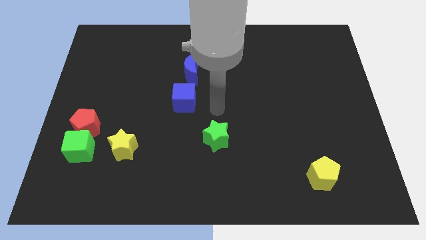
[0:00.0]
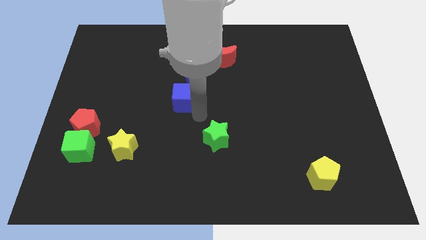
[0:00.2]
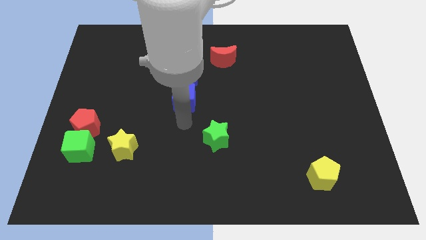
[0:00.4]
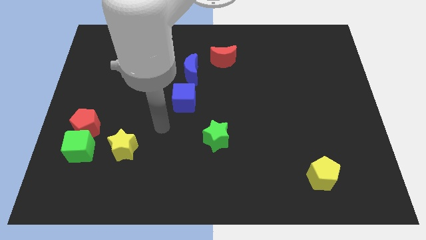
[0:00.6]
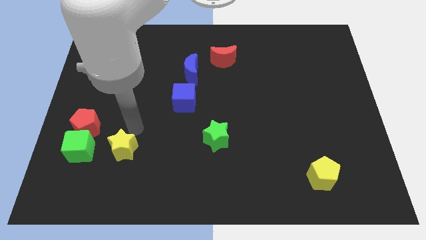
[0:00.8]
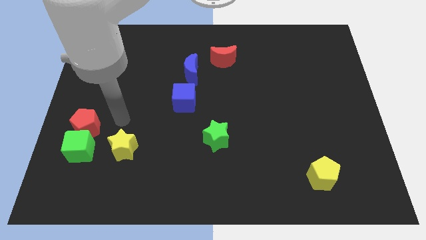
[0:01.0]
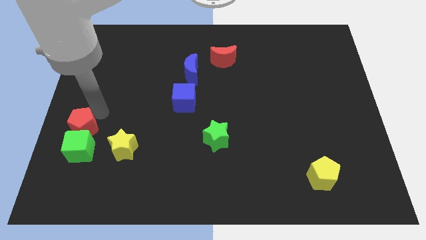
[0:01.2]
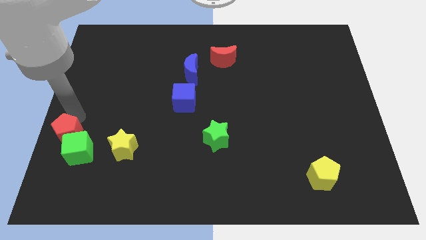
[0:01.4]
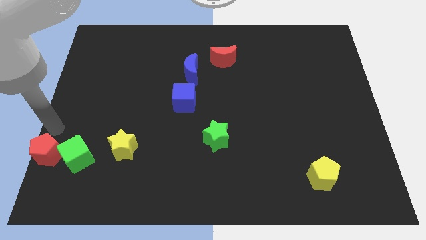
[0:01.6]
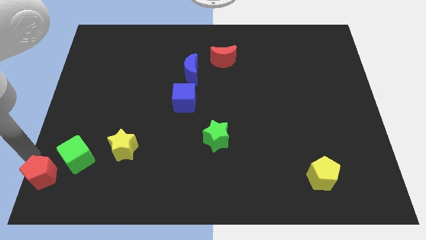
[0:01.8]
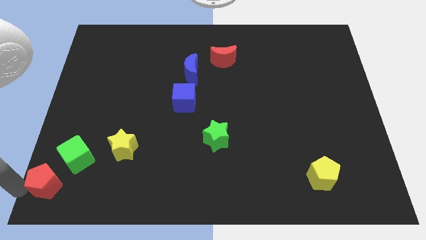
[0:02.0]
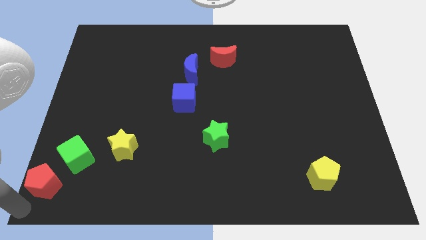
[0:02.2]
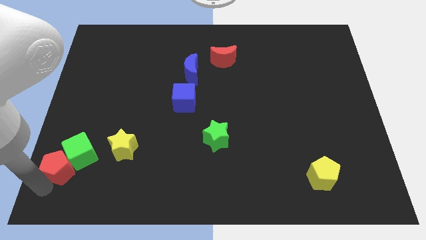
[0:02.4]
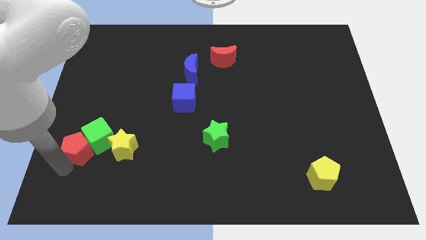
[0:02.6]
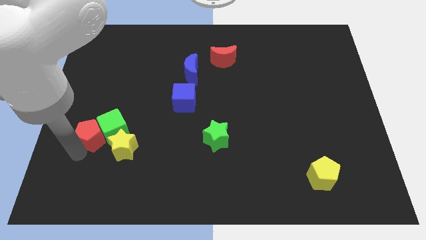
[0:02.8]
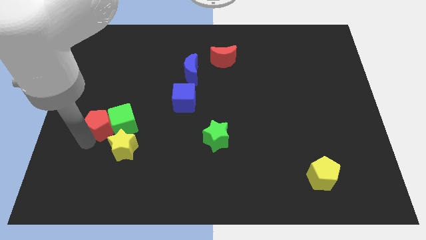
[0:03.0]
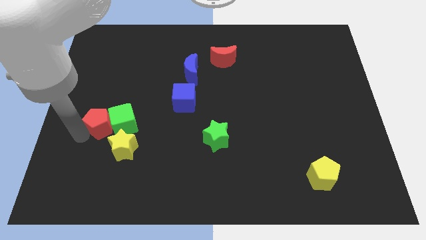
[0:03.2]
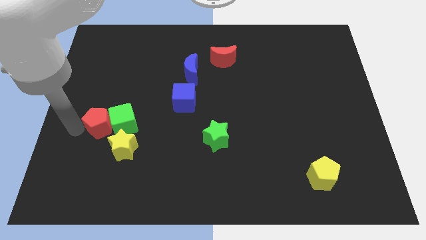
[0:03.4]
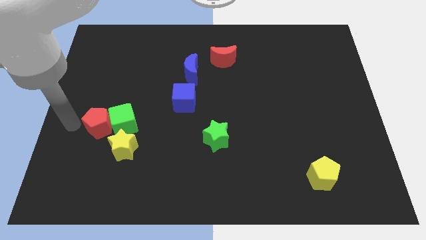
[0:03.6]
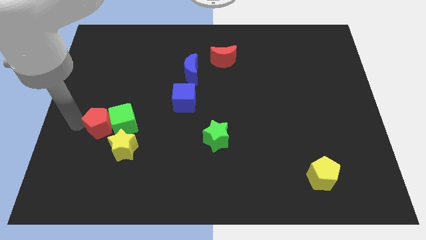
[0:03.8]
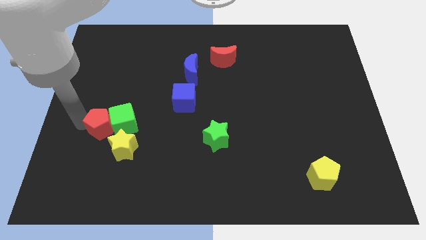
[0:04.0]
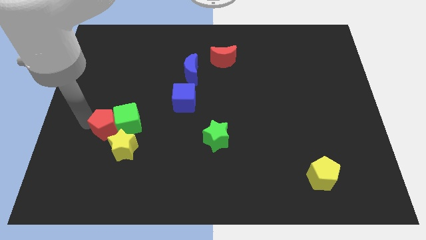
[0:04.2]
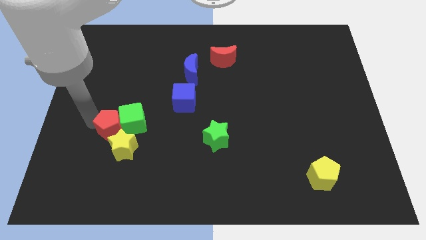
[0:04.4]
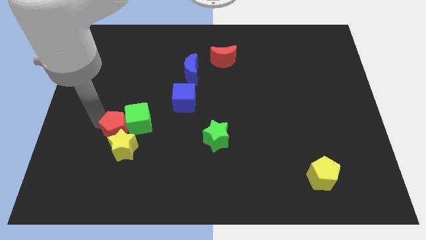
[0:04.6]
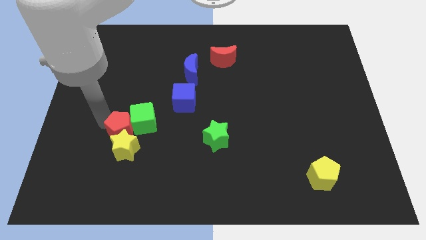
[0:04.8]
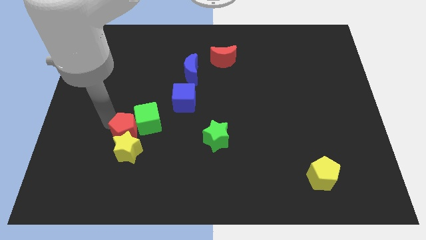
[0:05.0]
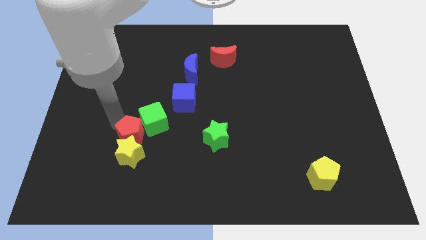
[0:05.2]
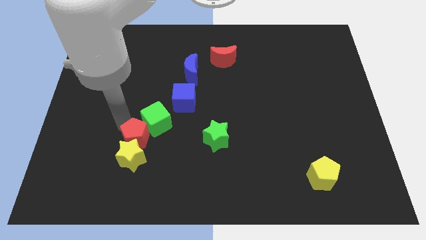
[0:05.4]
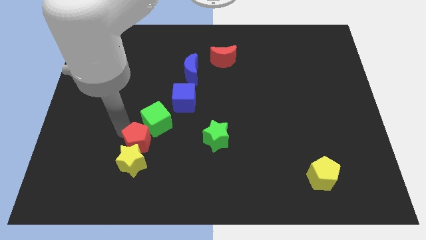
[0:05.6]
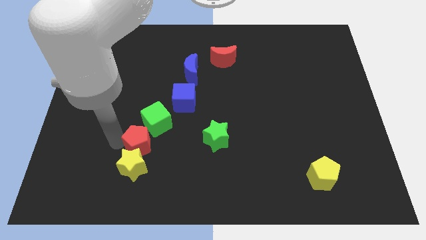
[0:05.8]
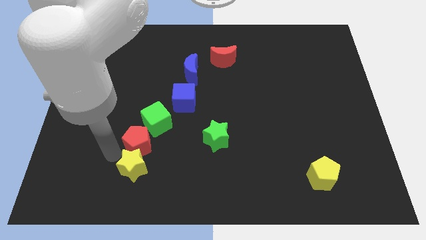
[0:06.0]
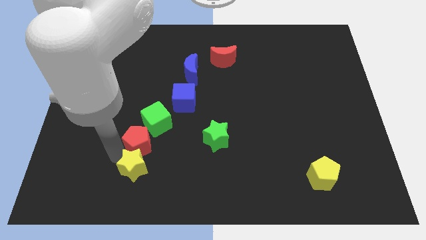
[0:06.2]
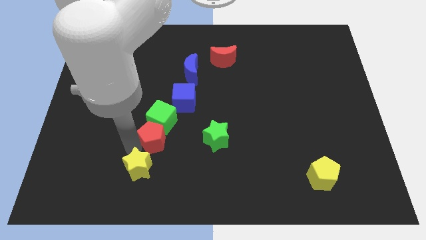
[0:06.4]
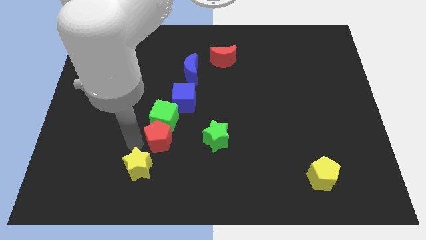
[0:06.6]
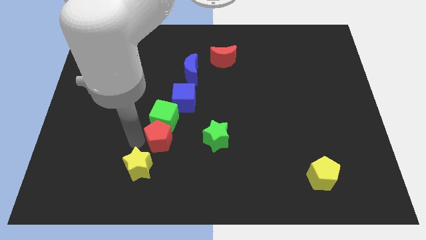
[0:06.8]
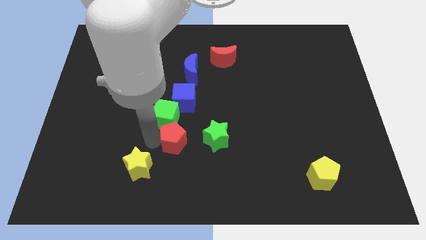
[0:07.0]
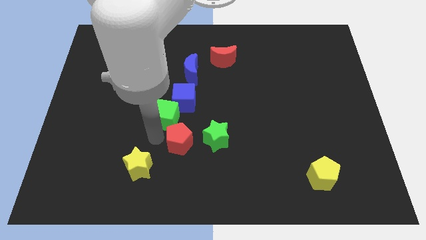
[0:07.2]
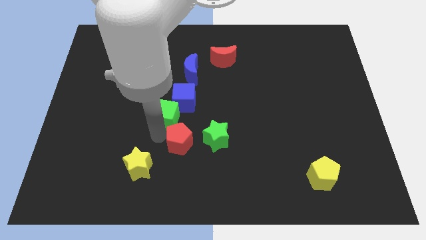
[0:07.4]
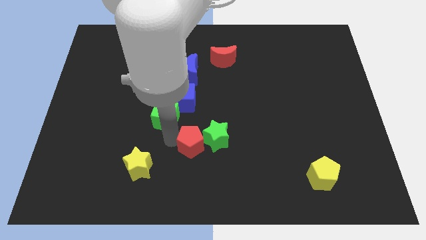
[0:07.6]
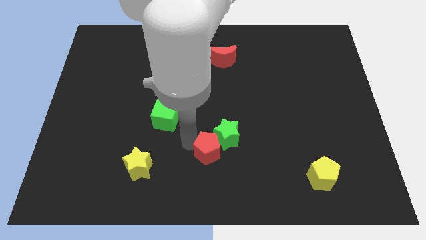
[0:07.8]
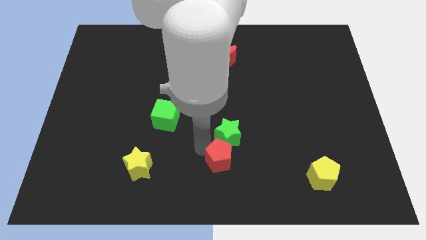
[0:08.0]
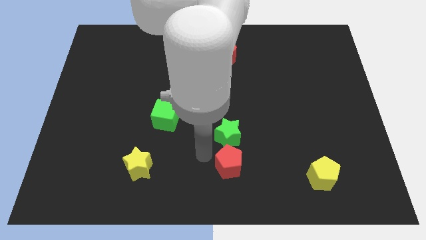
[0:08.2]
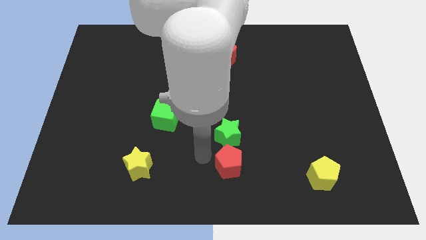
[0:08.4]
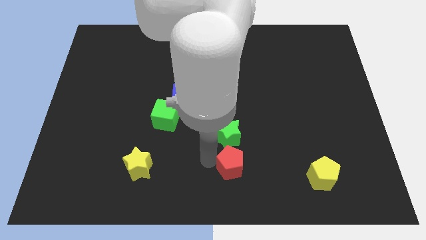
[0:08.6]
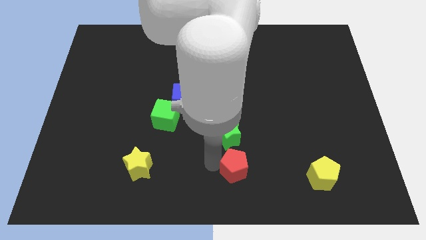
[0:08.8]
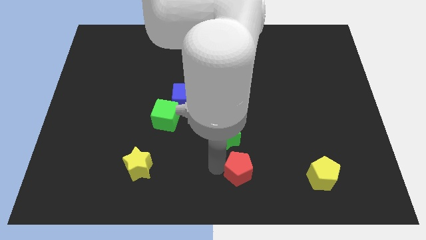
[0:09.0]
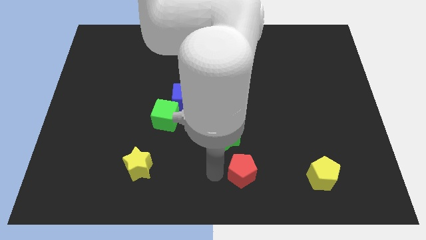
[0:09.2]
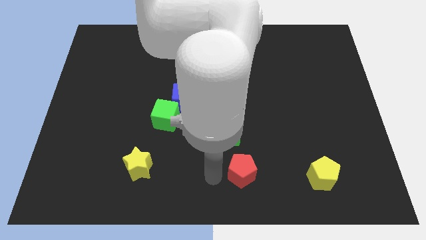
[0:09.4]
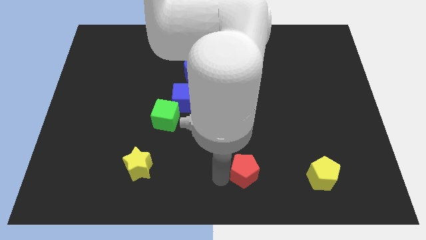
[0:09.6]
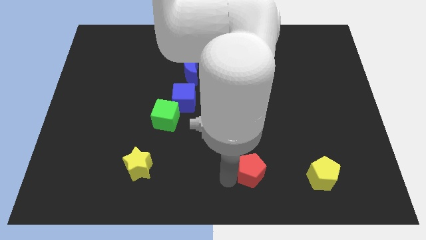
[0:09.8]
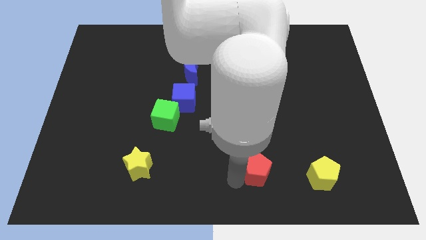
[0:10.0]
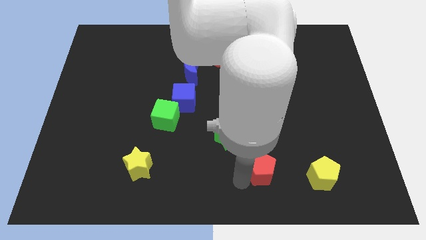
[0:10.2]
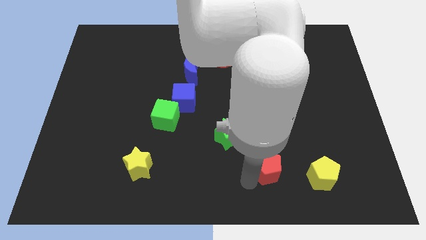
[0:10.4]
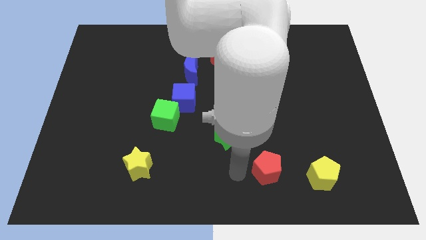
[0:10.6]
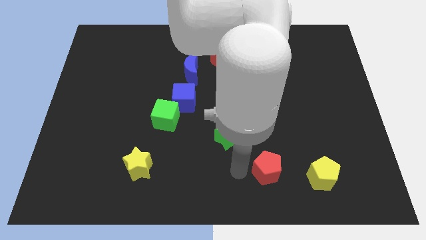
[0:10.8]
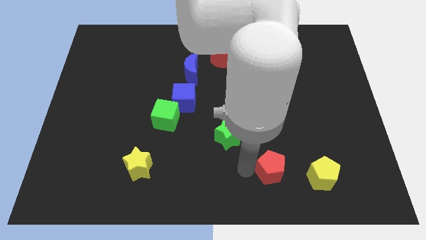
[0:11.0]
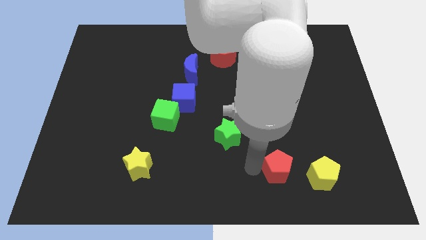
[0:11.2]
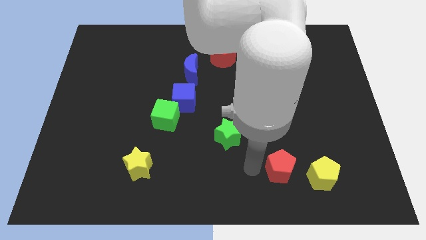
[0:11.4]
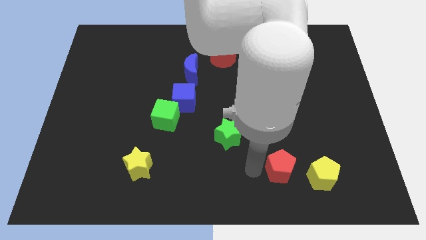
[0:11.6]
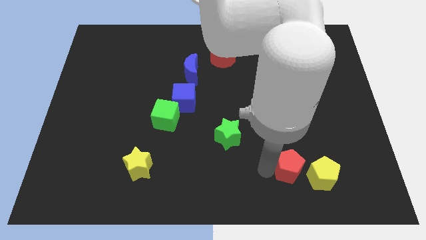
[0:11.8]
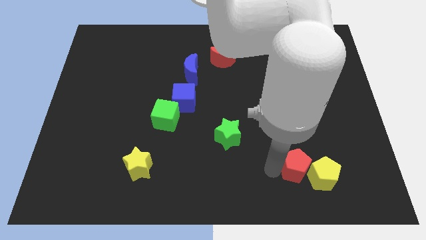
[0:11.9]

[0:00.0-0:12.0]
push the red pentagon to the yellow pentagon

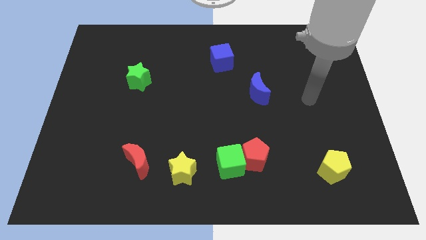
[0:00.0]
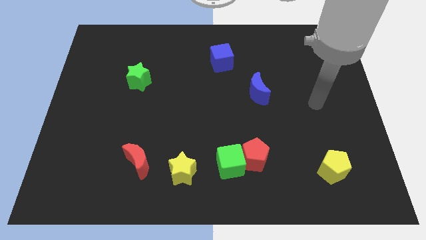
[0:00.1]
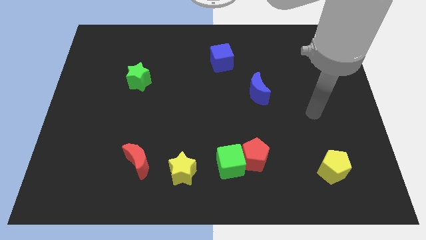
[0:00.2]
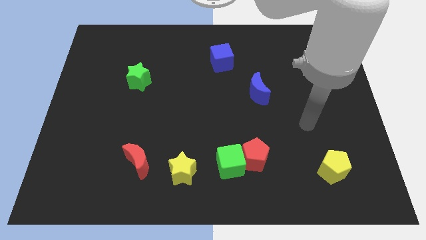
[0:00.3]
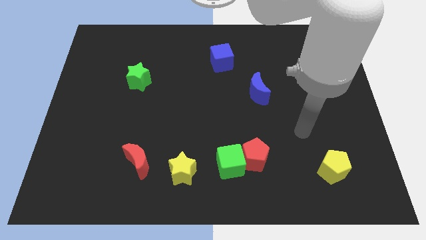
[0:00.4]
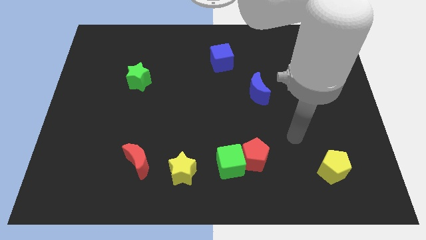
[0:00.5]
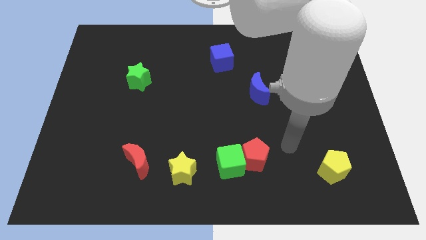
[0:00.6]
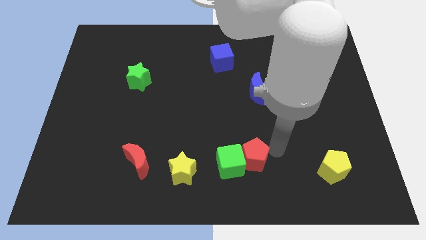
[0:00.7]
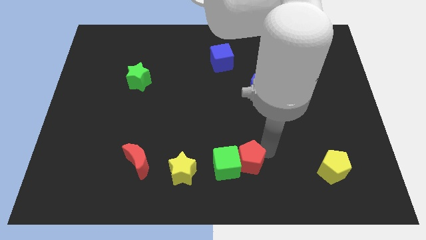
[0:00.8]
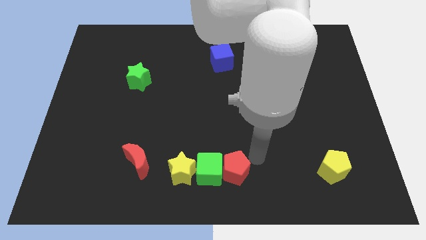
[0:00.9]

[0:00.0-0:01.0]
push the green cube next to the yellow star
